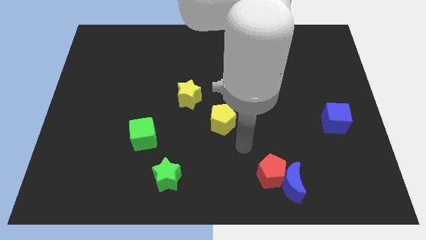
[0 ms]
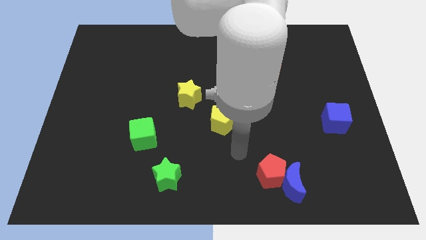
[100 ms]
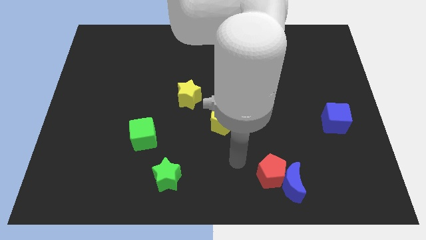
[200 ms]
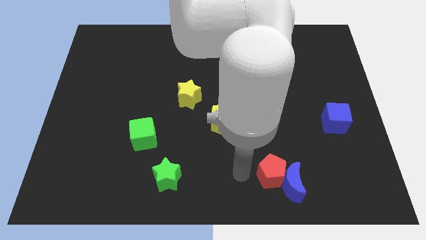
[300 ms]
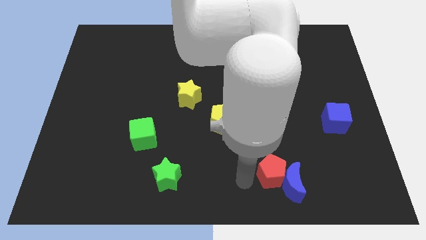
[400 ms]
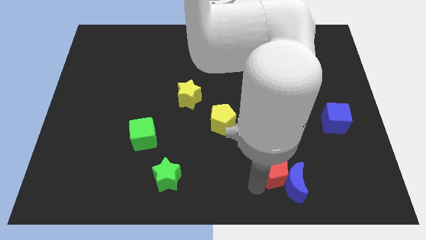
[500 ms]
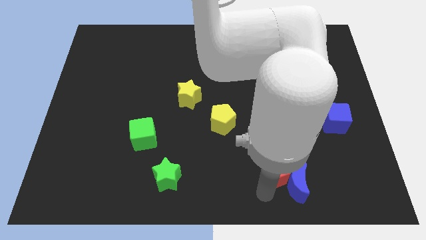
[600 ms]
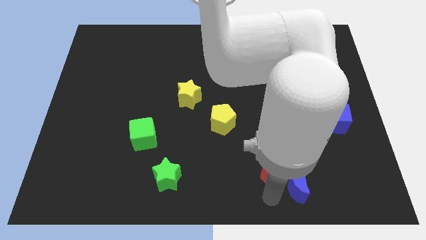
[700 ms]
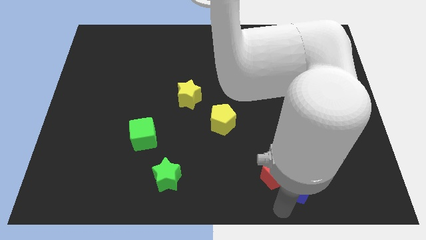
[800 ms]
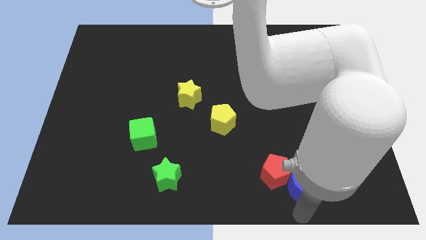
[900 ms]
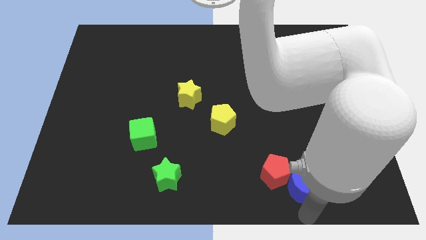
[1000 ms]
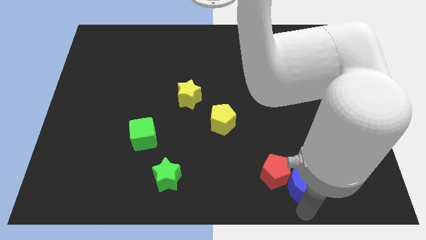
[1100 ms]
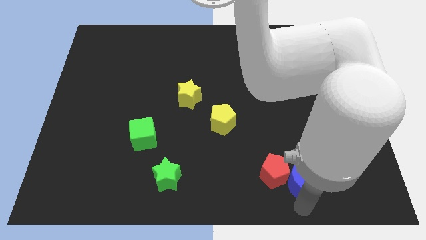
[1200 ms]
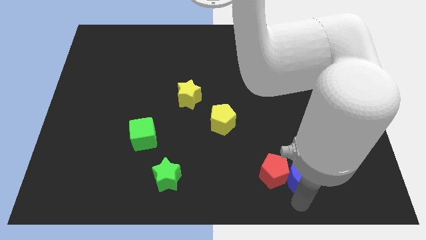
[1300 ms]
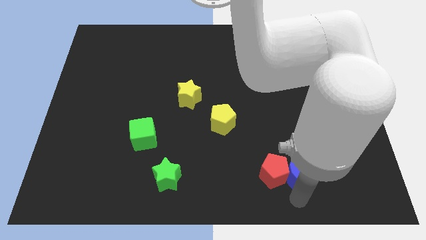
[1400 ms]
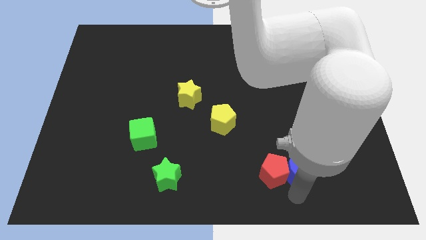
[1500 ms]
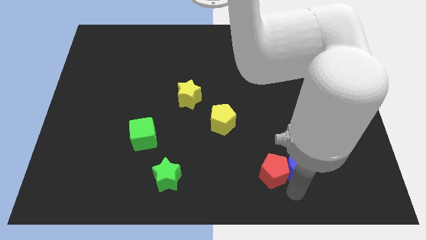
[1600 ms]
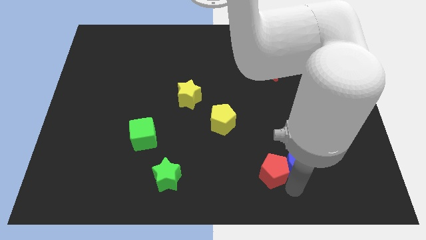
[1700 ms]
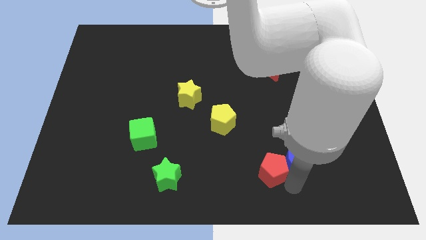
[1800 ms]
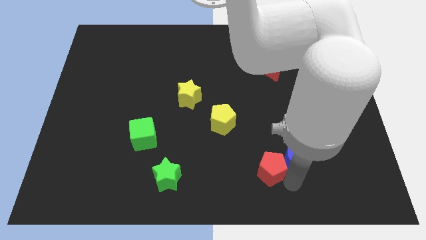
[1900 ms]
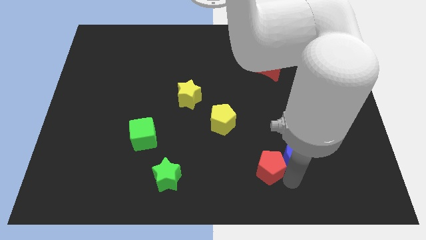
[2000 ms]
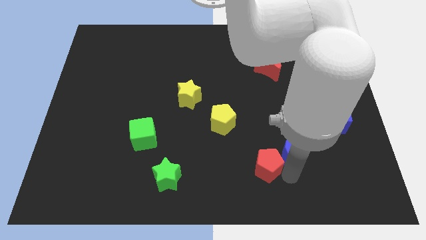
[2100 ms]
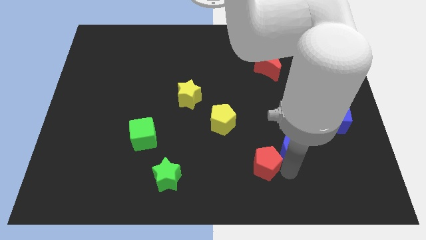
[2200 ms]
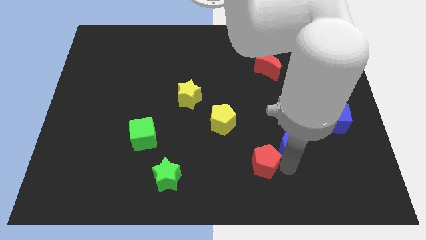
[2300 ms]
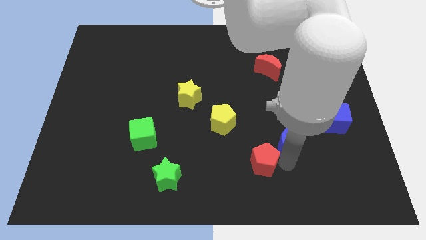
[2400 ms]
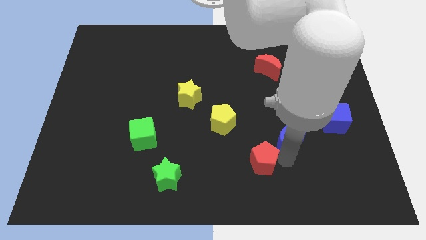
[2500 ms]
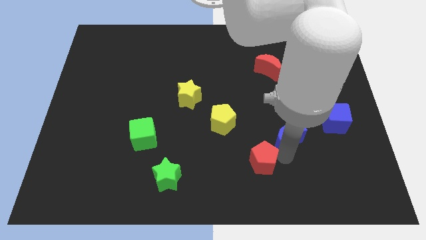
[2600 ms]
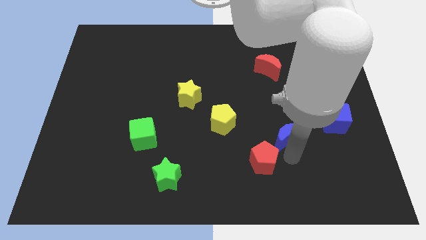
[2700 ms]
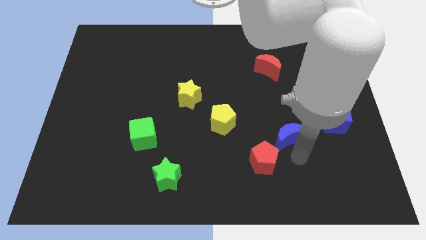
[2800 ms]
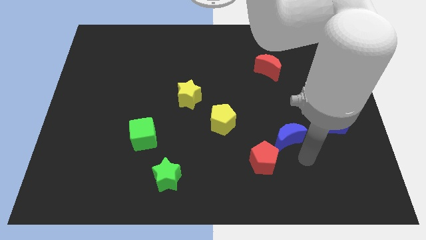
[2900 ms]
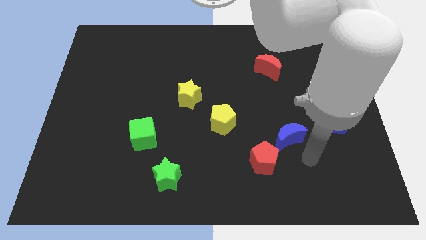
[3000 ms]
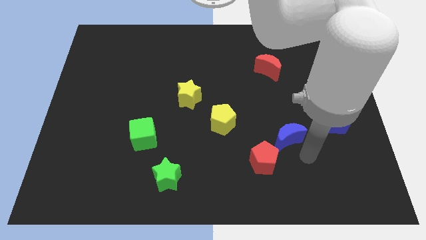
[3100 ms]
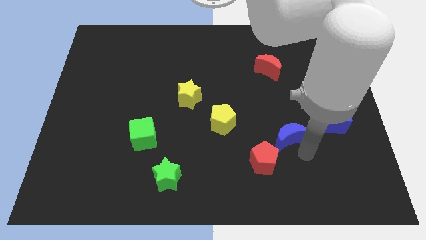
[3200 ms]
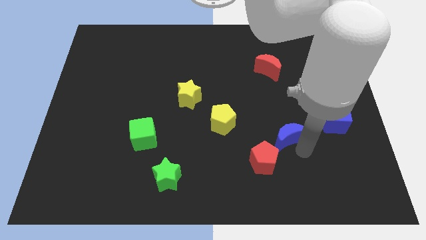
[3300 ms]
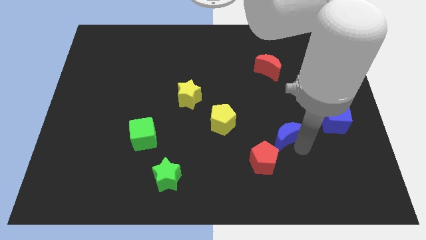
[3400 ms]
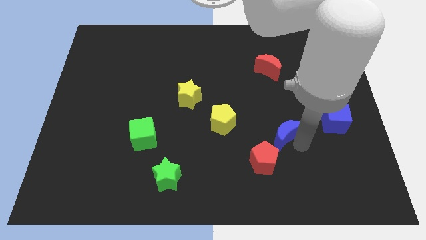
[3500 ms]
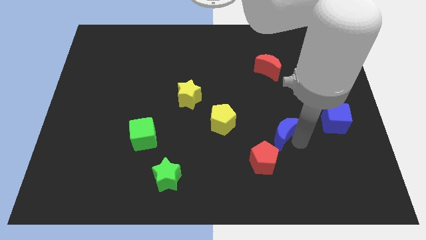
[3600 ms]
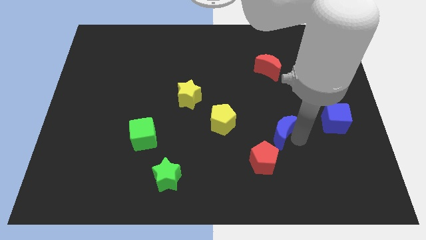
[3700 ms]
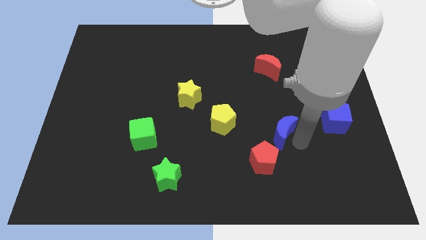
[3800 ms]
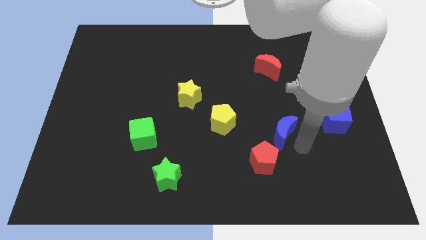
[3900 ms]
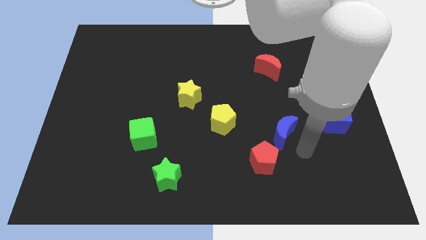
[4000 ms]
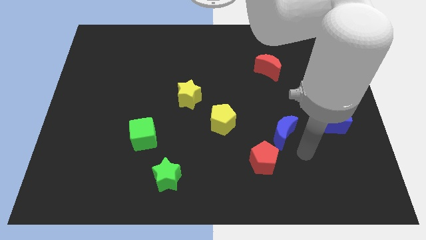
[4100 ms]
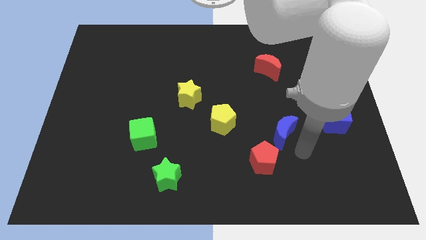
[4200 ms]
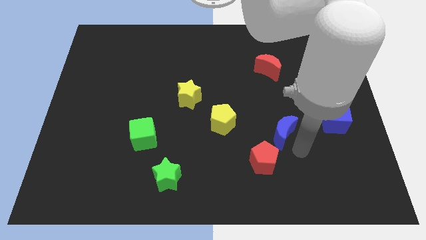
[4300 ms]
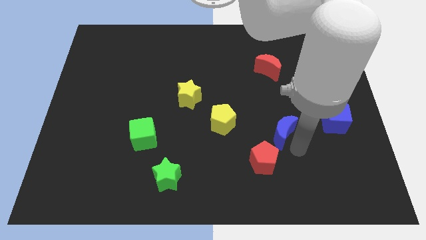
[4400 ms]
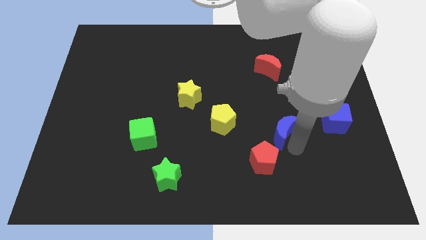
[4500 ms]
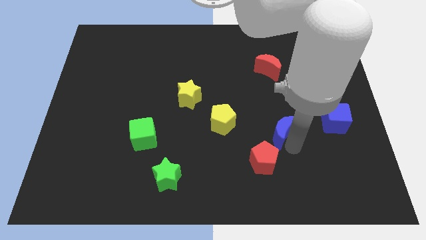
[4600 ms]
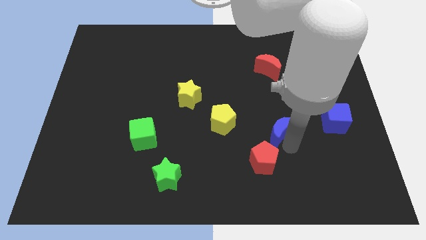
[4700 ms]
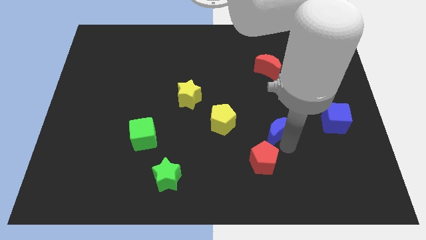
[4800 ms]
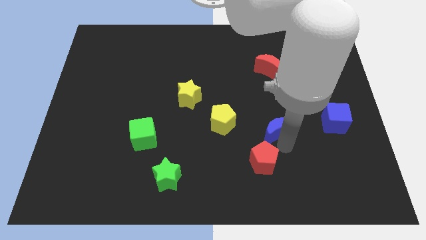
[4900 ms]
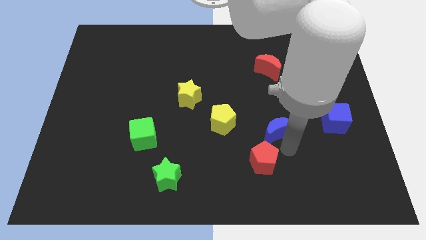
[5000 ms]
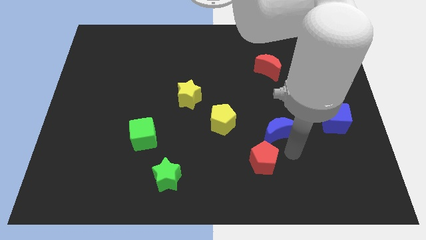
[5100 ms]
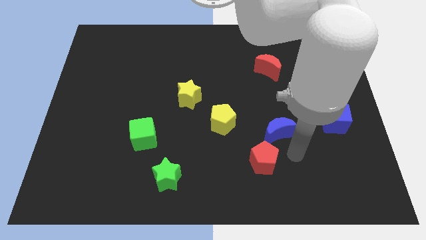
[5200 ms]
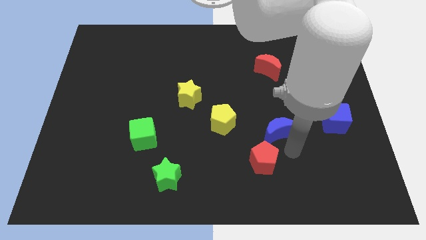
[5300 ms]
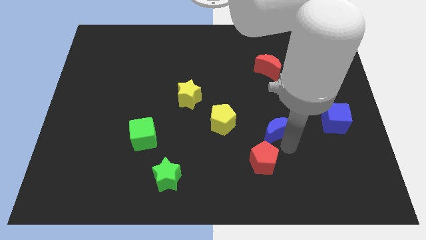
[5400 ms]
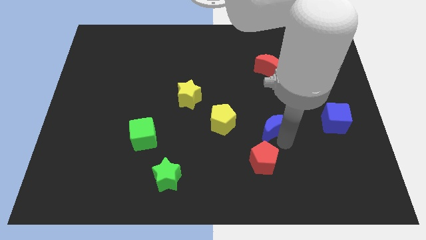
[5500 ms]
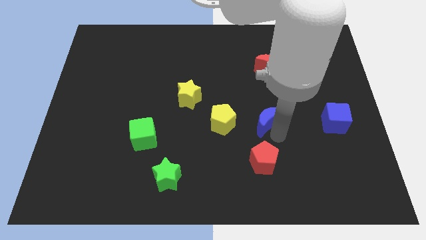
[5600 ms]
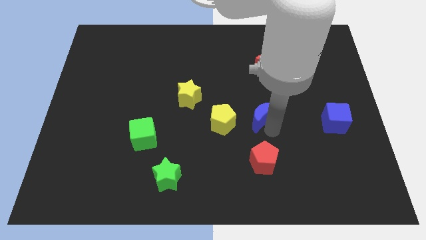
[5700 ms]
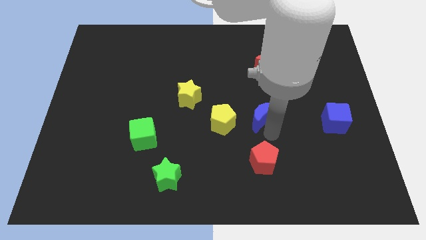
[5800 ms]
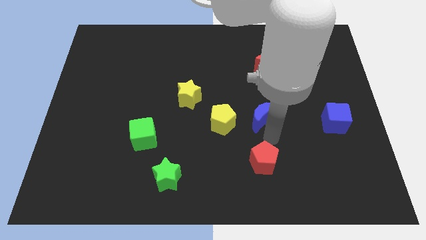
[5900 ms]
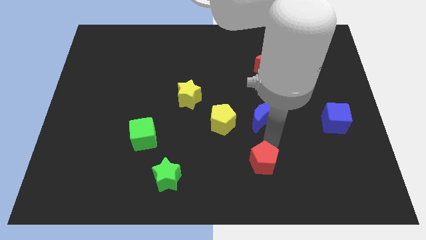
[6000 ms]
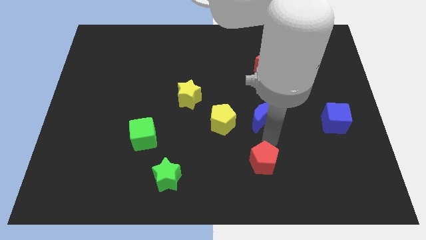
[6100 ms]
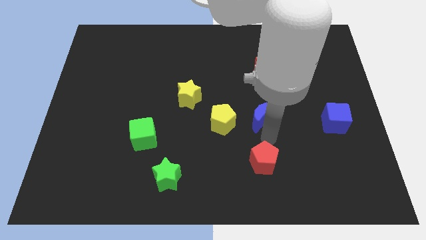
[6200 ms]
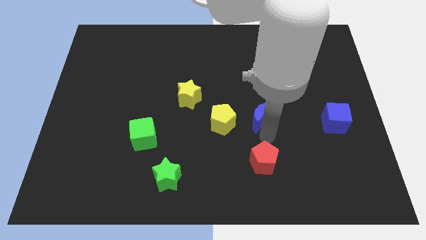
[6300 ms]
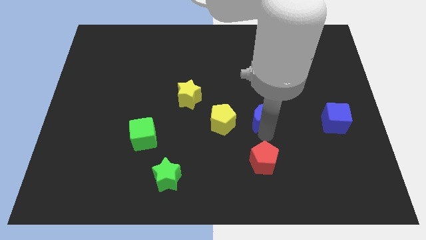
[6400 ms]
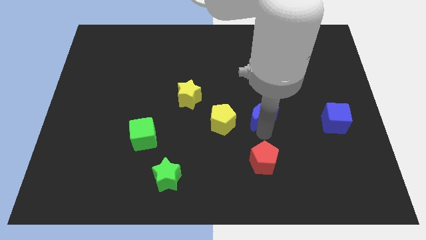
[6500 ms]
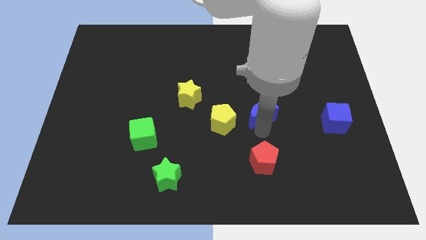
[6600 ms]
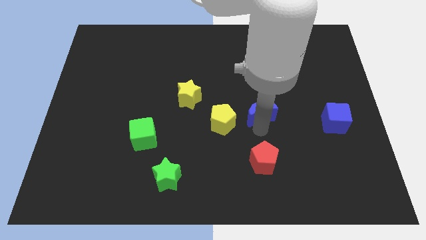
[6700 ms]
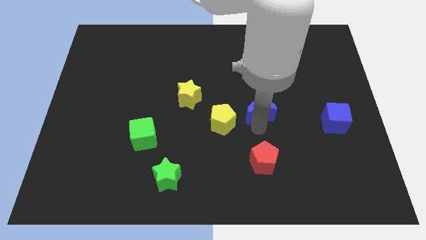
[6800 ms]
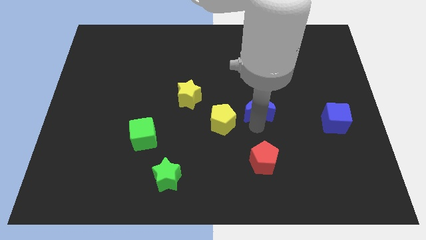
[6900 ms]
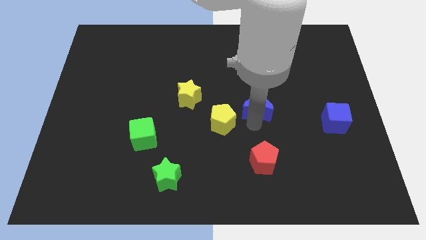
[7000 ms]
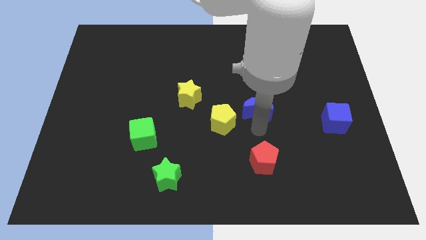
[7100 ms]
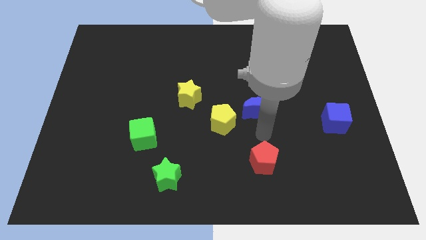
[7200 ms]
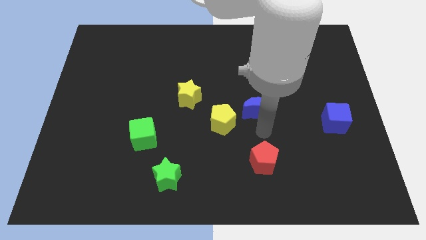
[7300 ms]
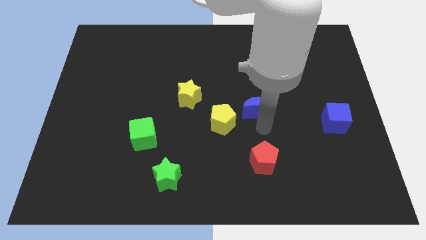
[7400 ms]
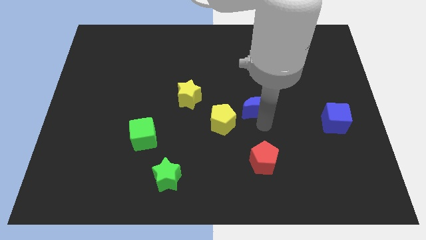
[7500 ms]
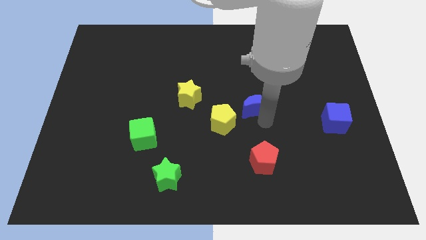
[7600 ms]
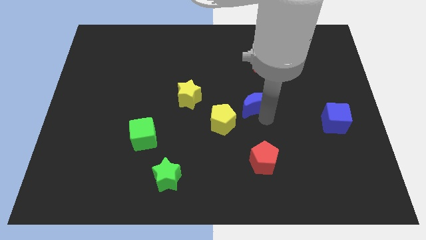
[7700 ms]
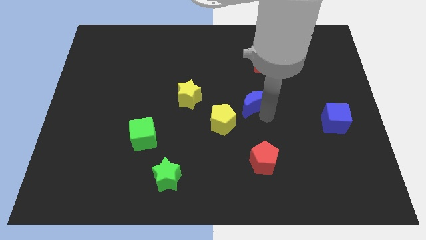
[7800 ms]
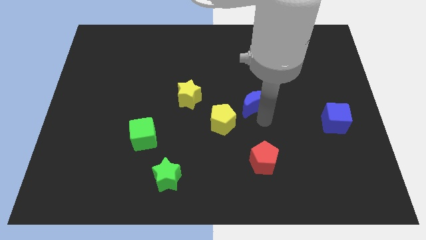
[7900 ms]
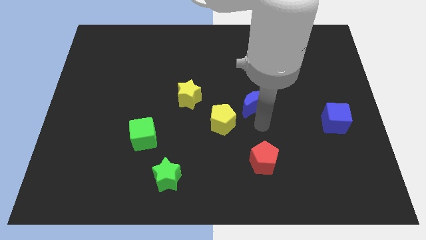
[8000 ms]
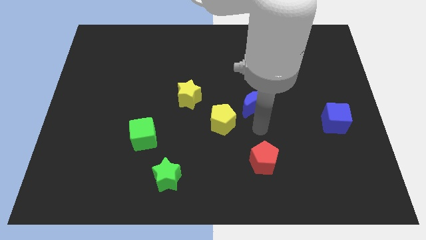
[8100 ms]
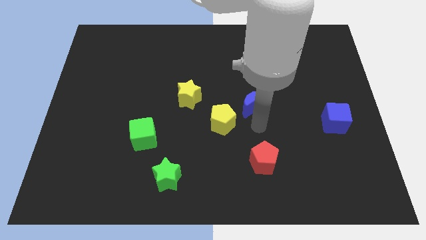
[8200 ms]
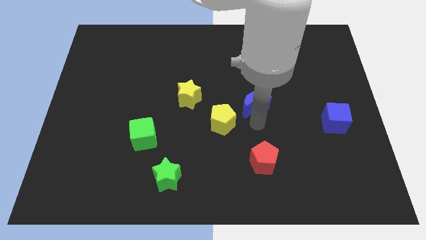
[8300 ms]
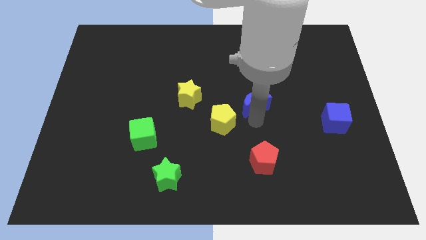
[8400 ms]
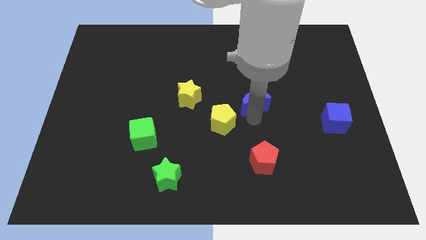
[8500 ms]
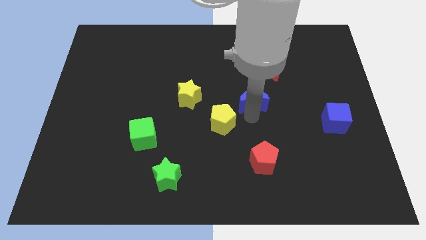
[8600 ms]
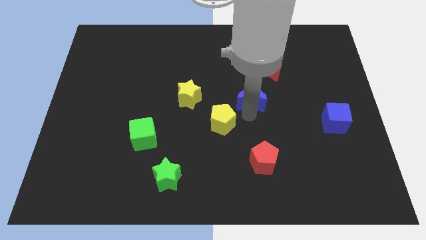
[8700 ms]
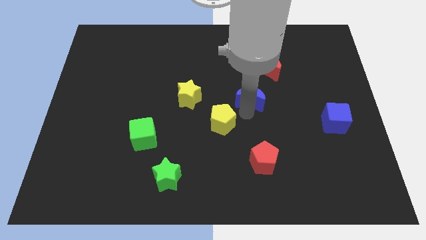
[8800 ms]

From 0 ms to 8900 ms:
slide the blue moon to the bottom left side of the red moon
